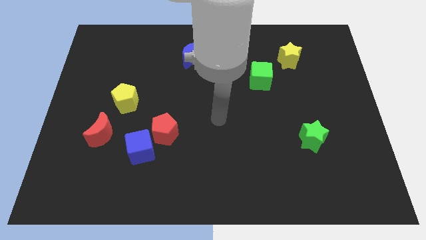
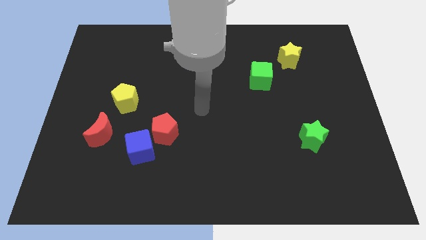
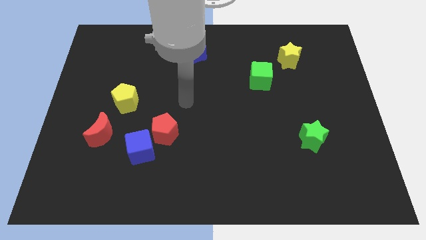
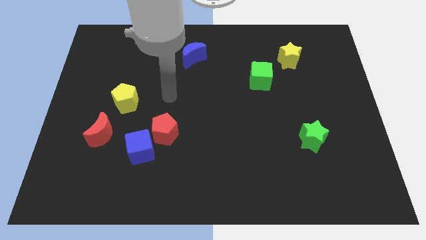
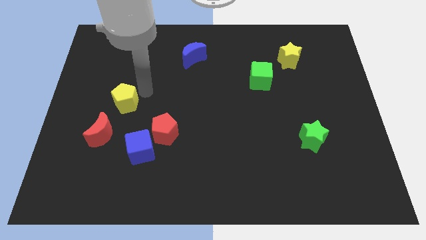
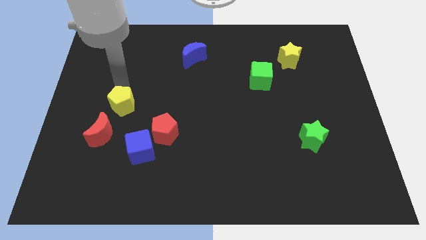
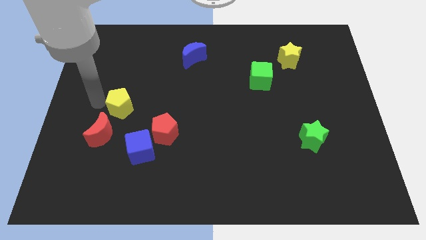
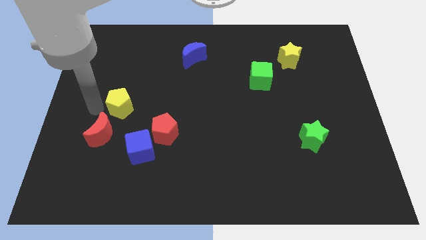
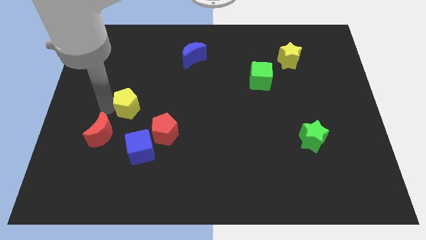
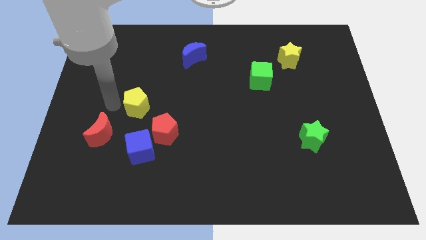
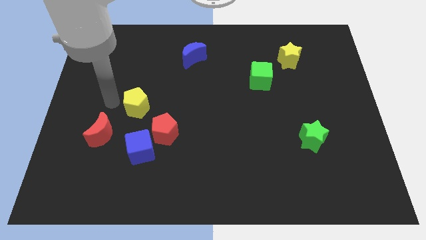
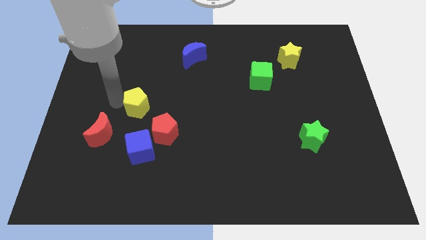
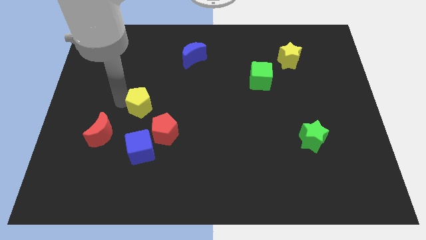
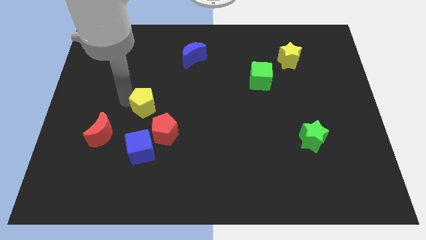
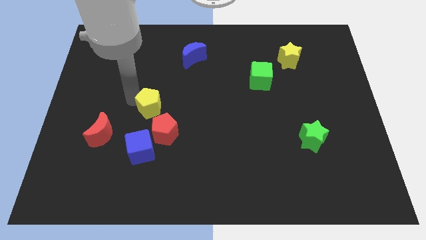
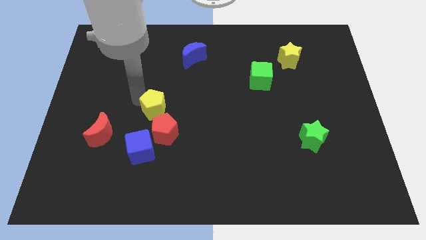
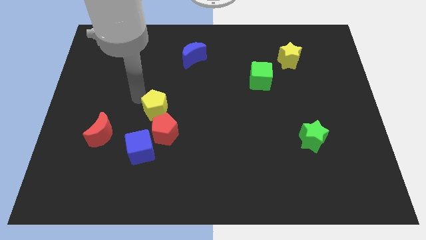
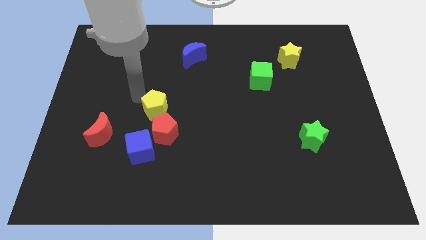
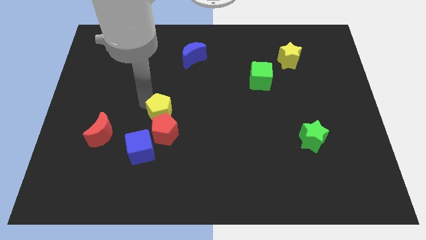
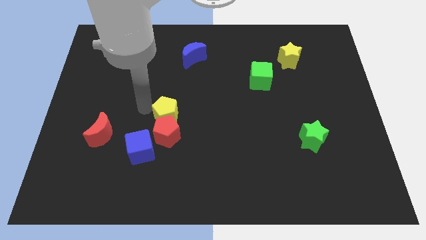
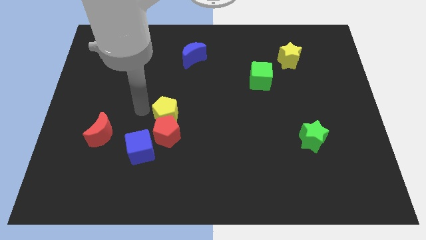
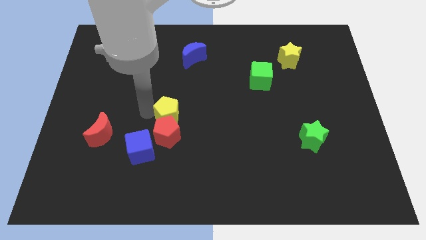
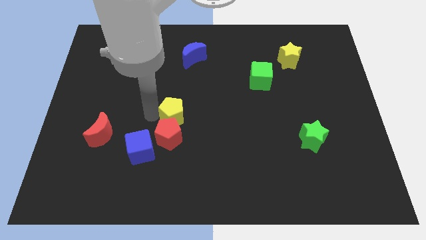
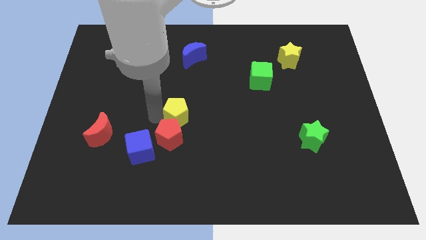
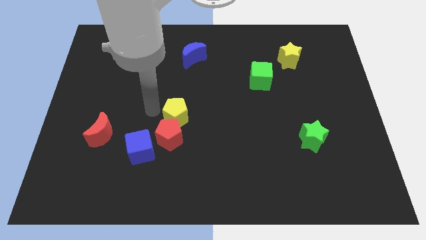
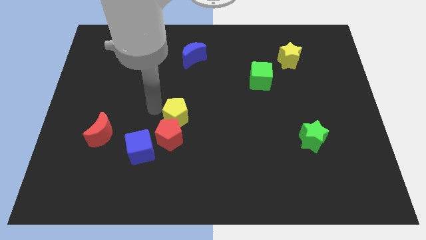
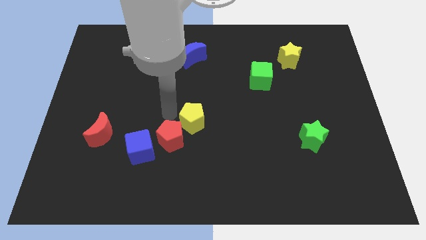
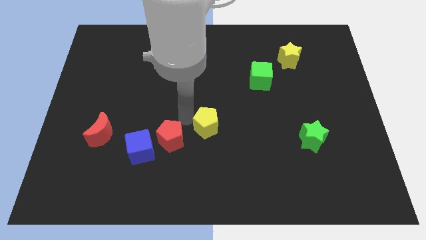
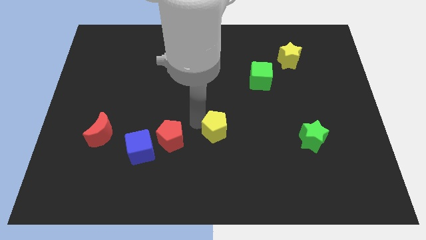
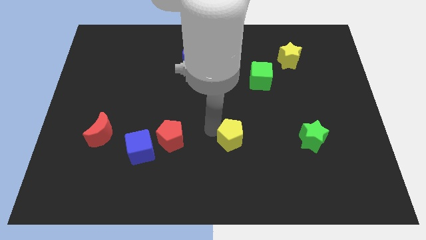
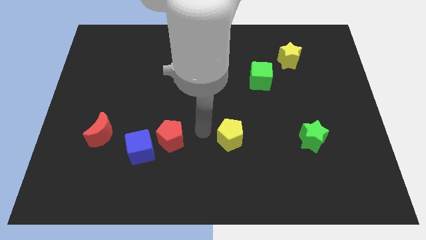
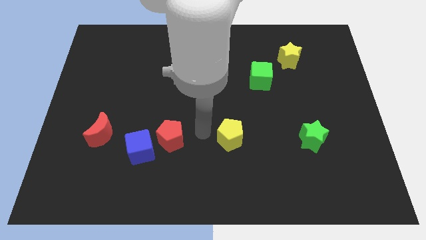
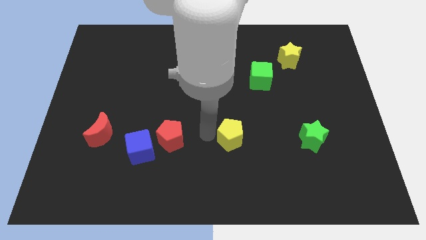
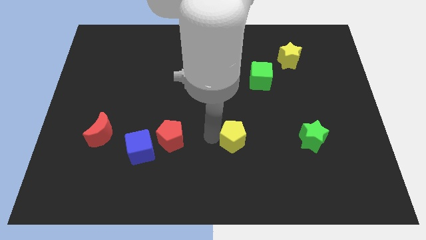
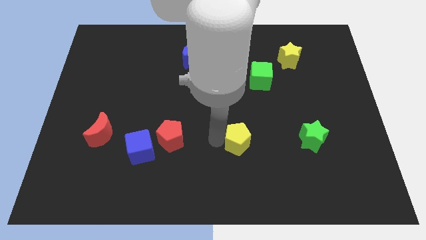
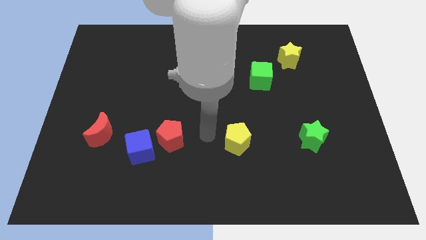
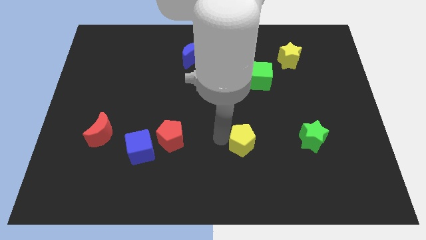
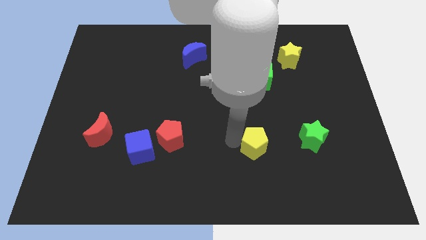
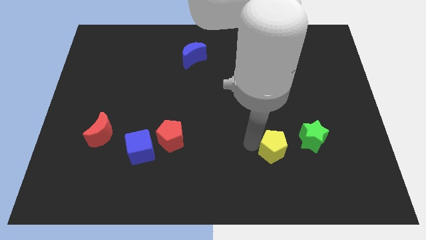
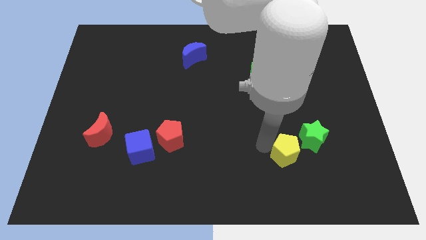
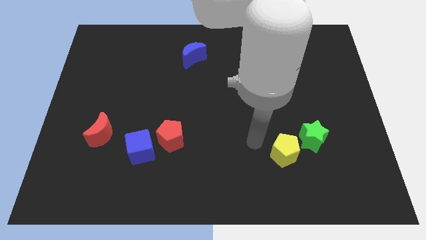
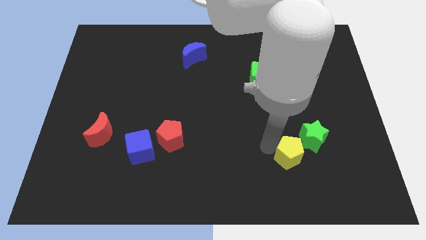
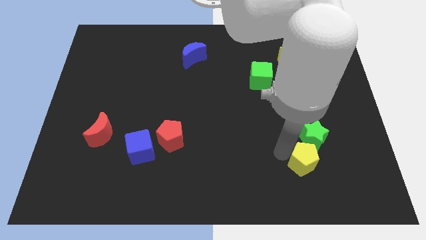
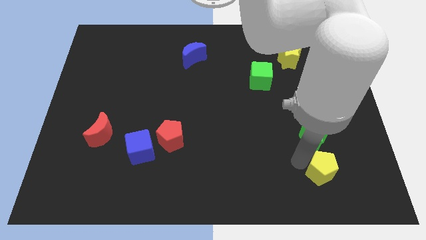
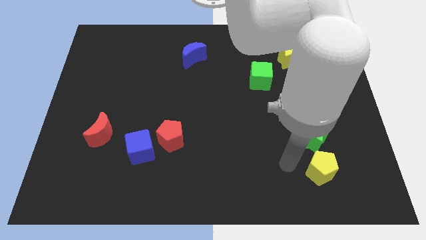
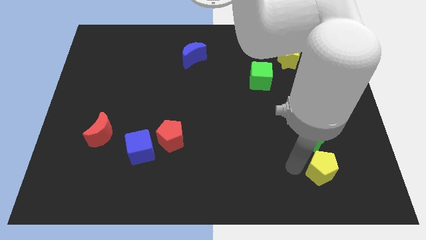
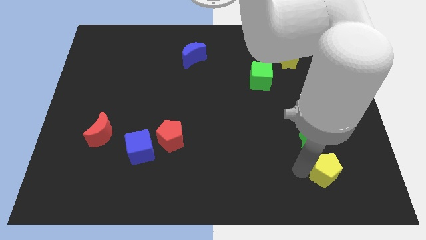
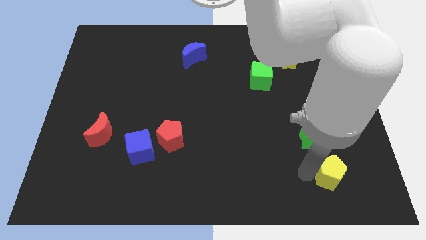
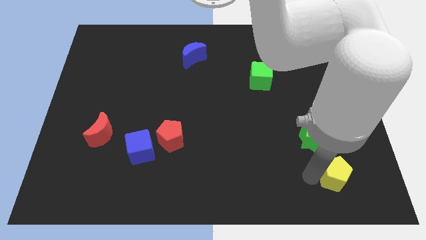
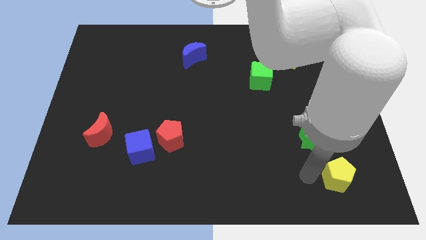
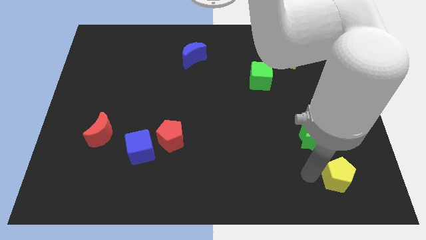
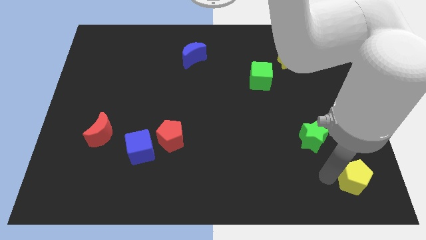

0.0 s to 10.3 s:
move the yellow pentagon to the bottom right corner

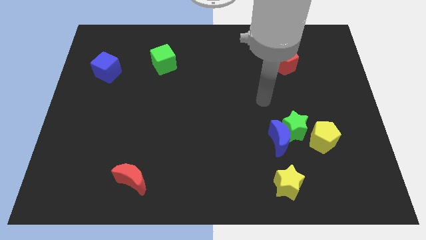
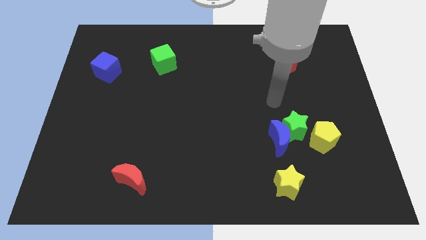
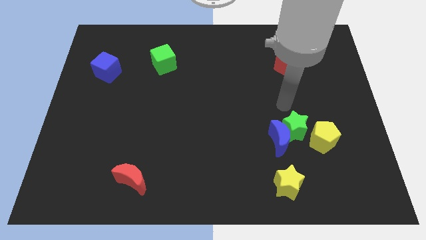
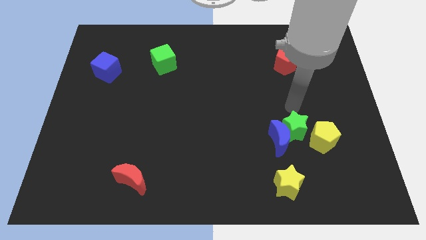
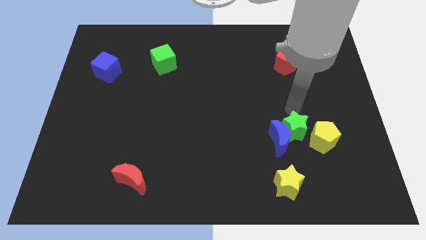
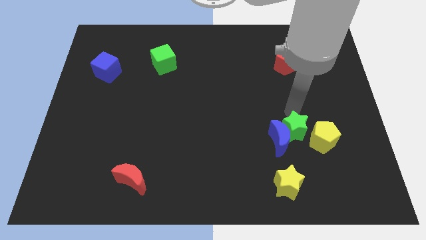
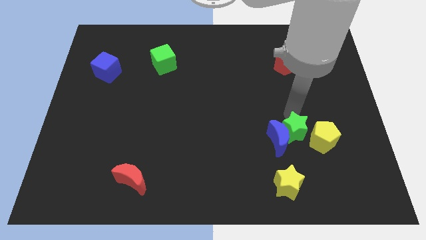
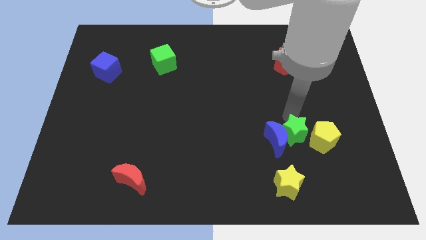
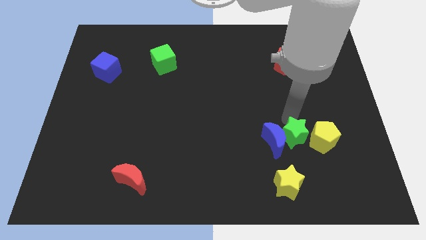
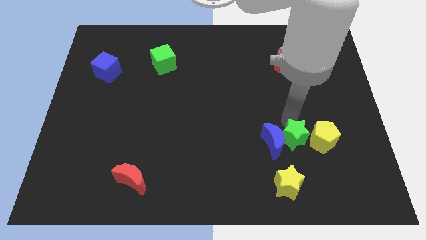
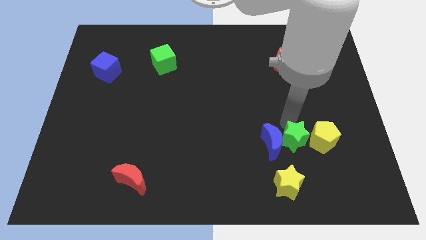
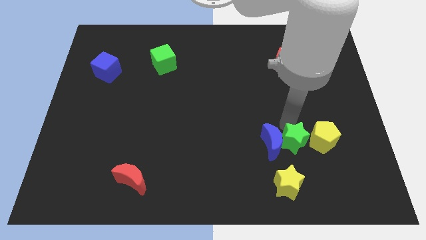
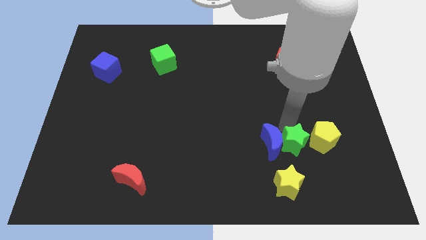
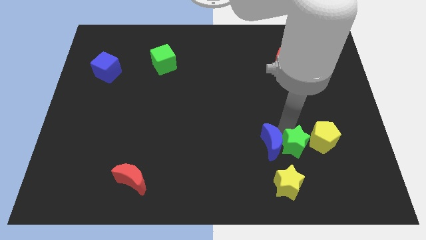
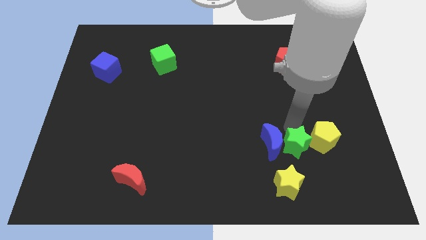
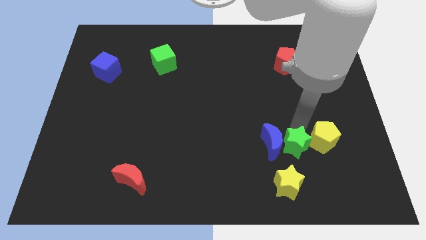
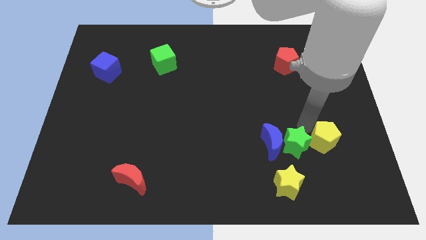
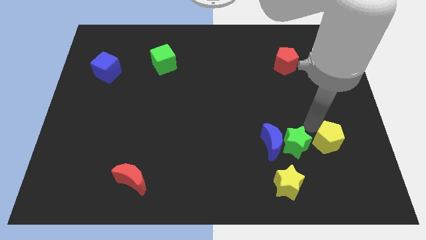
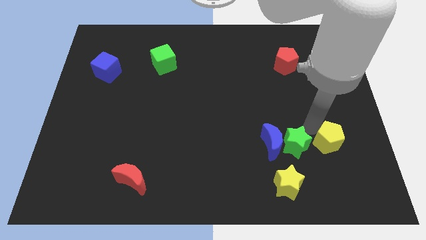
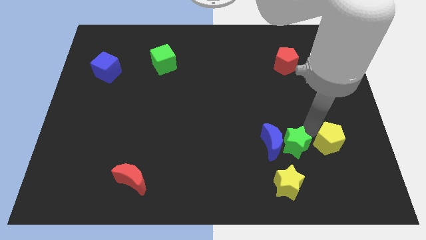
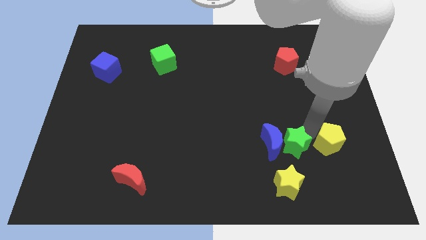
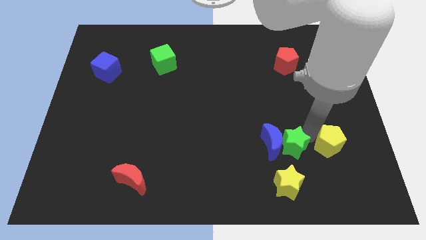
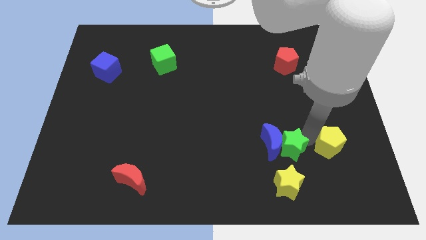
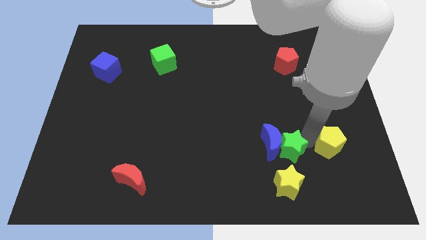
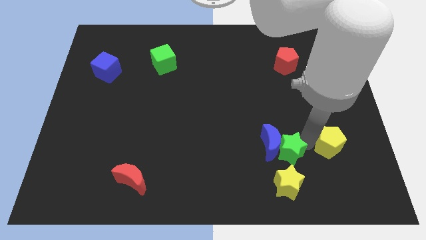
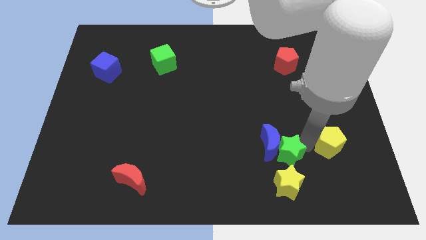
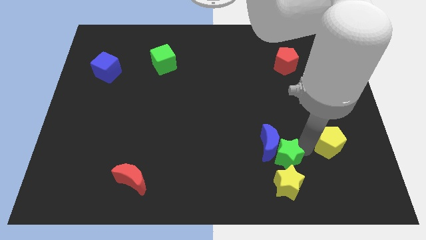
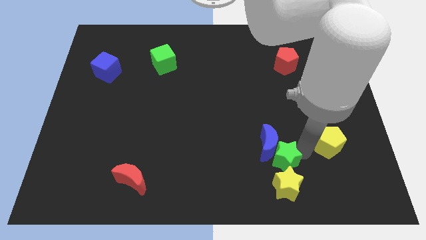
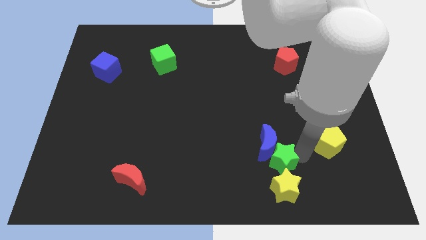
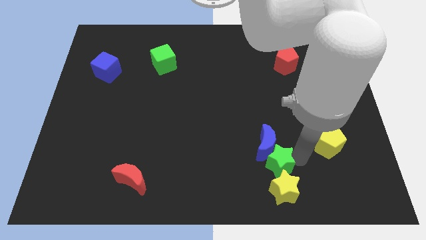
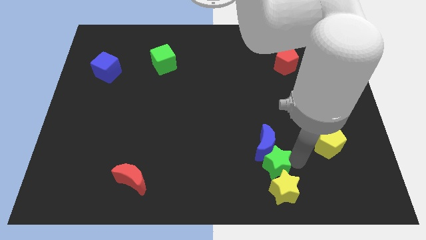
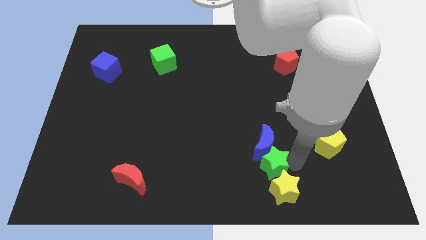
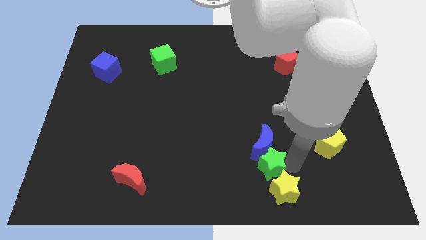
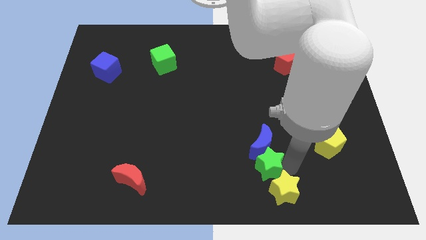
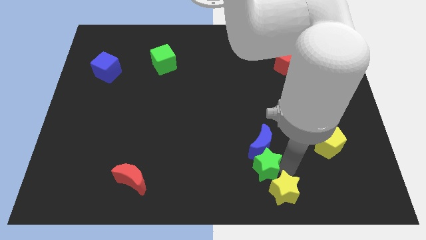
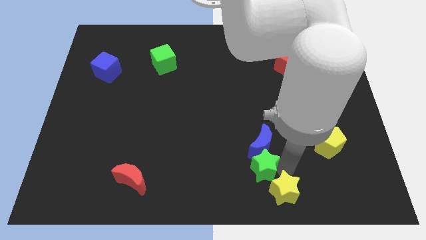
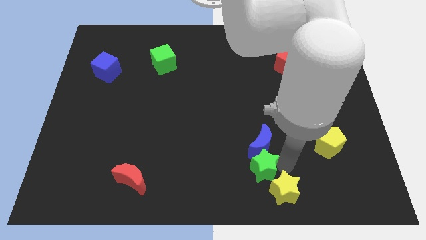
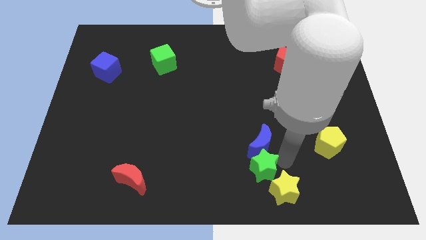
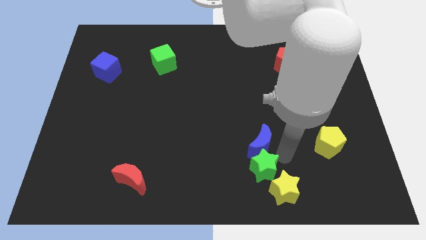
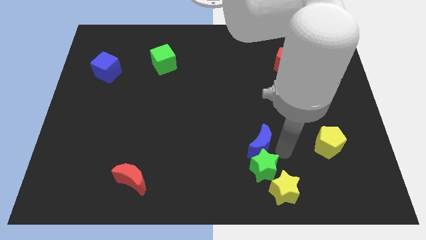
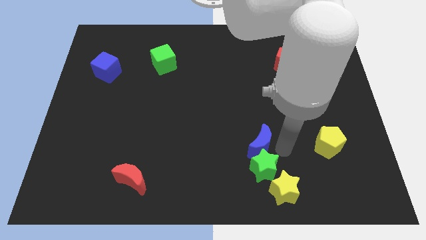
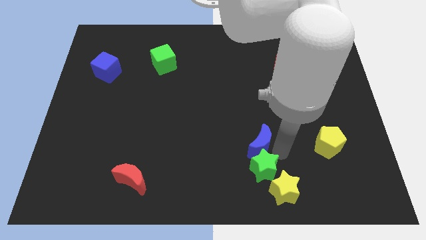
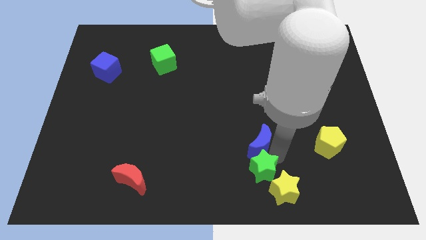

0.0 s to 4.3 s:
move the green star to the bottom side
